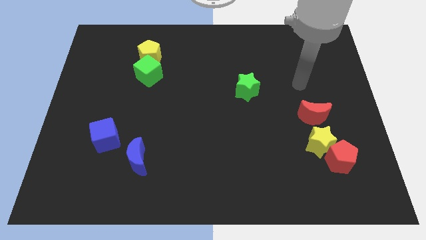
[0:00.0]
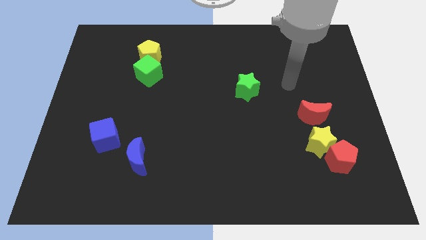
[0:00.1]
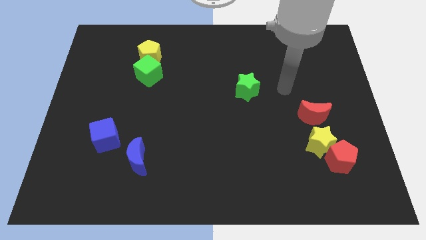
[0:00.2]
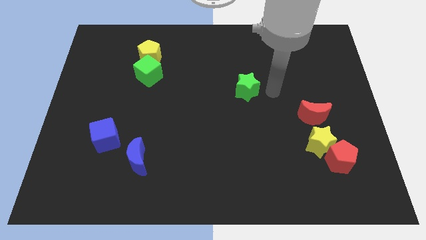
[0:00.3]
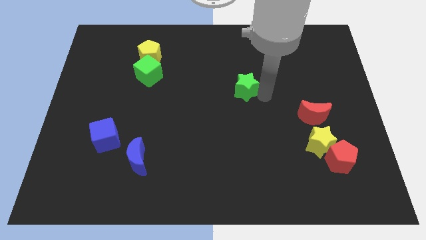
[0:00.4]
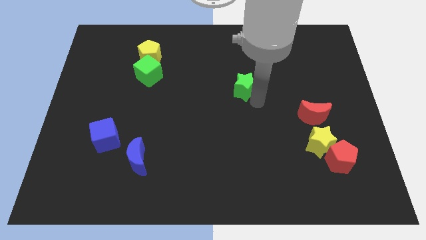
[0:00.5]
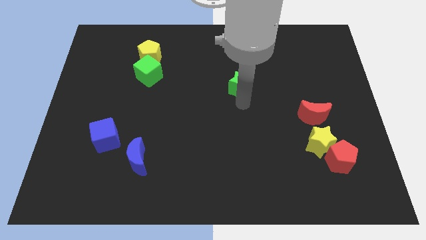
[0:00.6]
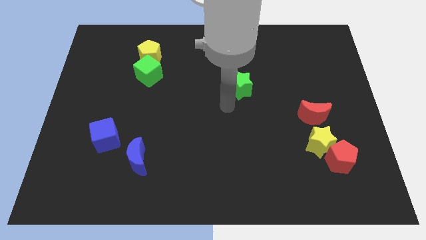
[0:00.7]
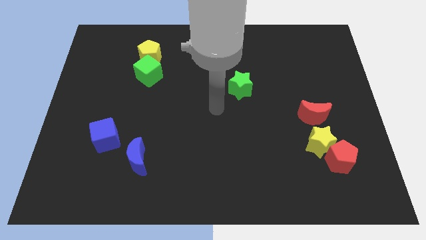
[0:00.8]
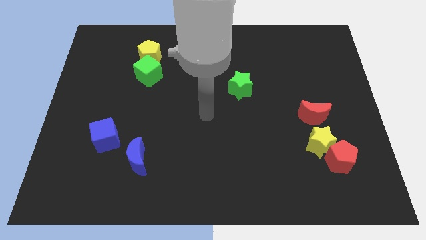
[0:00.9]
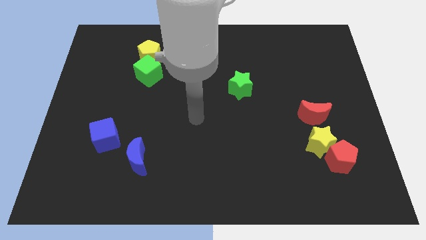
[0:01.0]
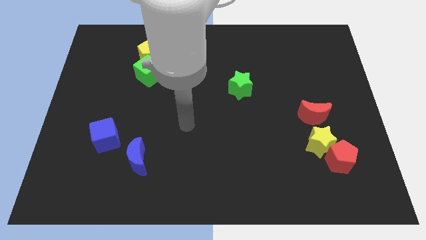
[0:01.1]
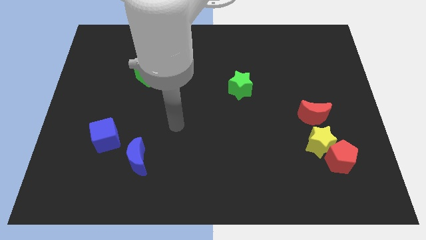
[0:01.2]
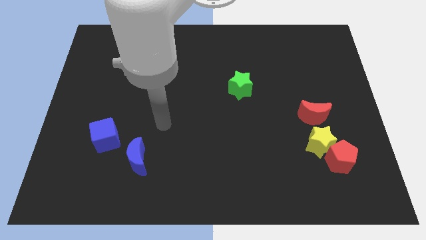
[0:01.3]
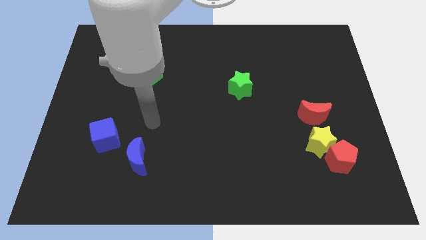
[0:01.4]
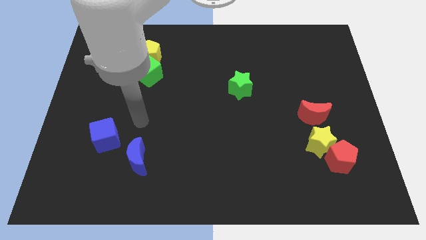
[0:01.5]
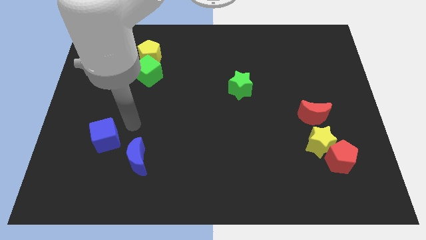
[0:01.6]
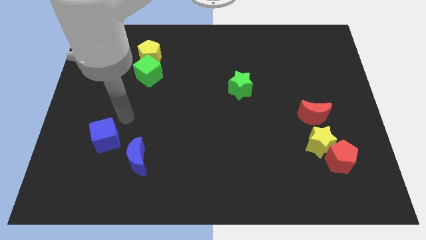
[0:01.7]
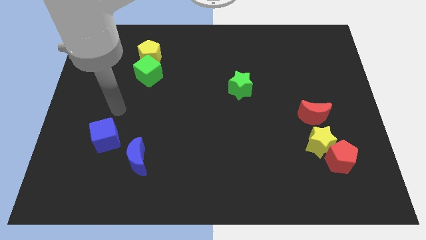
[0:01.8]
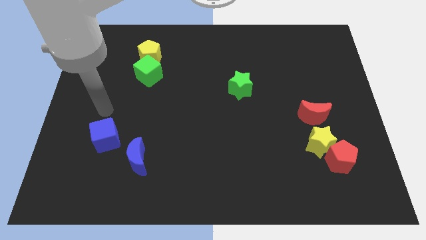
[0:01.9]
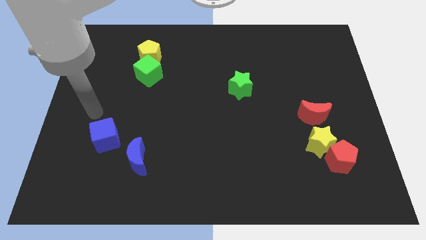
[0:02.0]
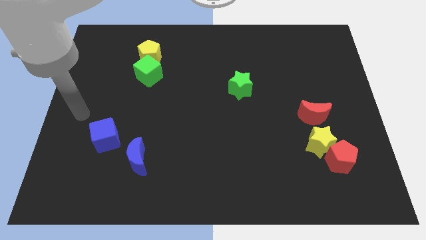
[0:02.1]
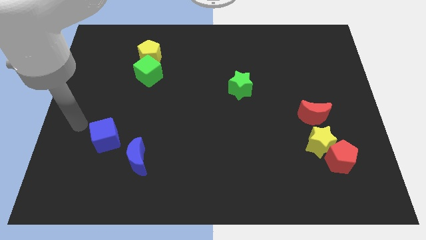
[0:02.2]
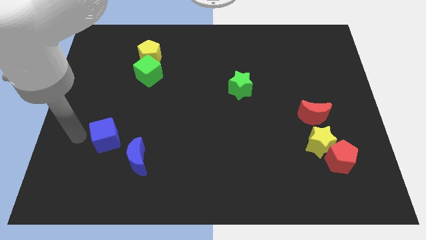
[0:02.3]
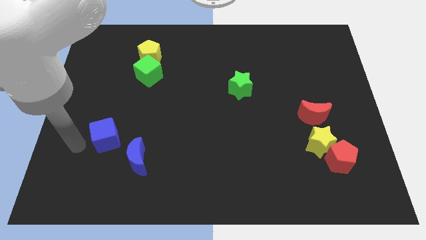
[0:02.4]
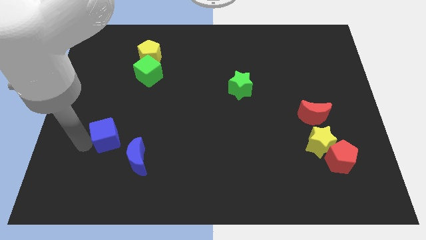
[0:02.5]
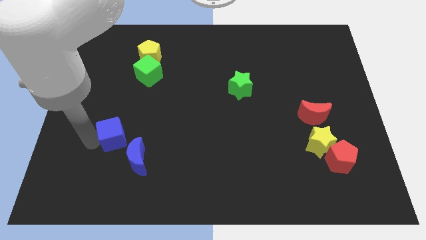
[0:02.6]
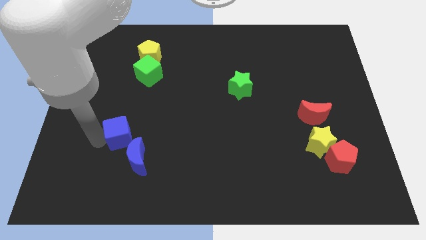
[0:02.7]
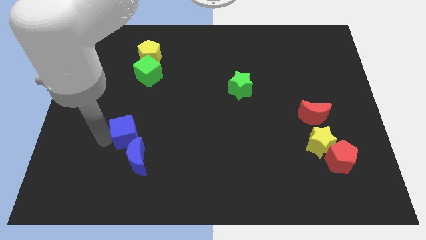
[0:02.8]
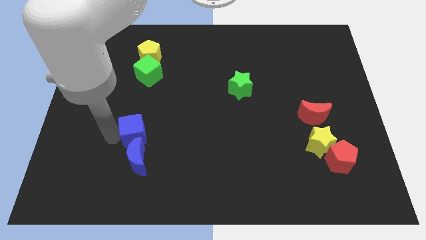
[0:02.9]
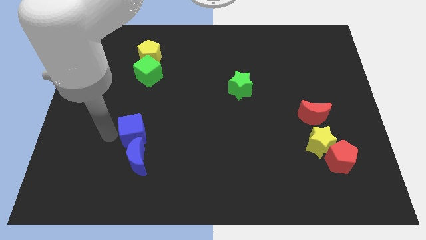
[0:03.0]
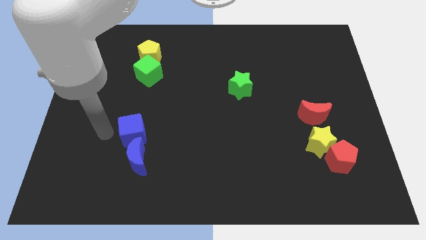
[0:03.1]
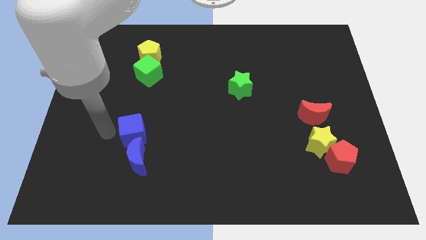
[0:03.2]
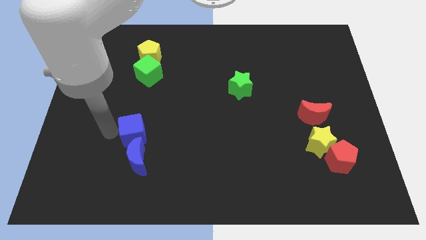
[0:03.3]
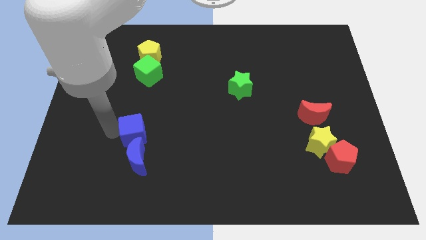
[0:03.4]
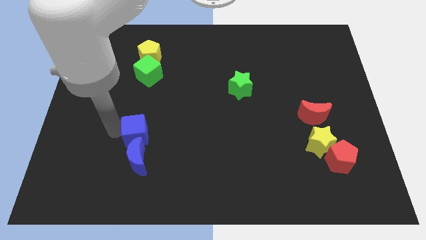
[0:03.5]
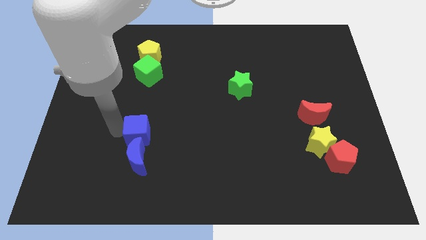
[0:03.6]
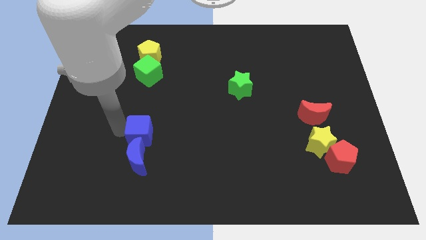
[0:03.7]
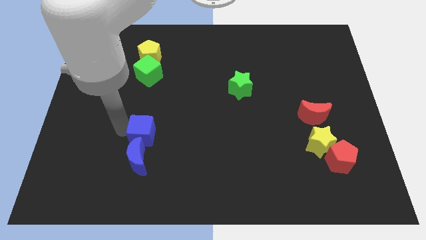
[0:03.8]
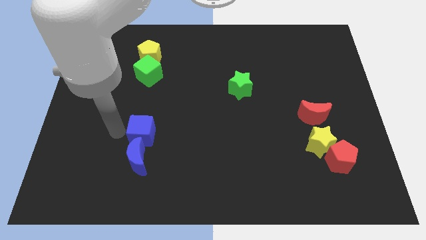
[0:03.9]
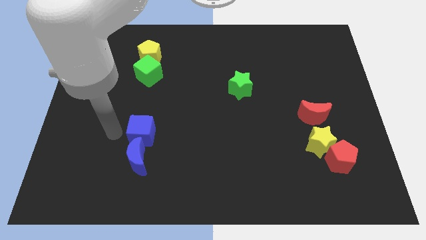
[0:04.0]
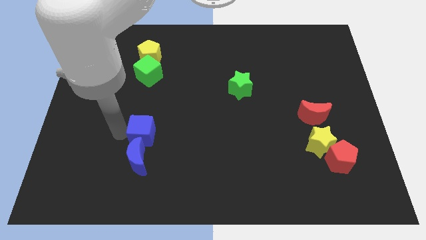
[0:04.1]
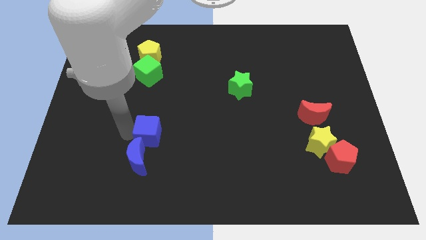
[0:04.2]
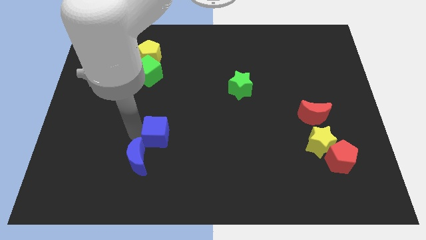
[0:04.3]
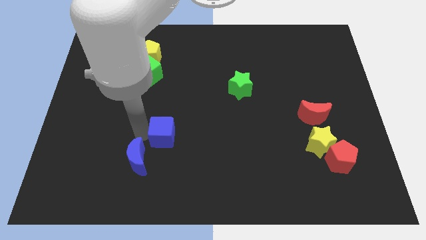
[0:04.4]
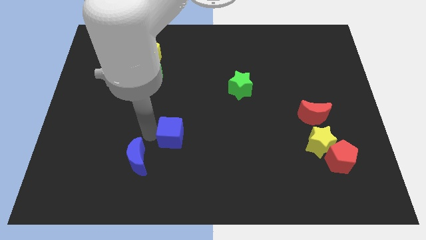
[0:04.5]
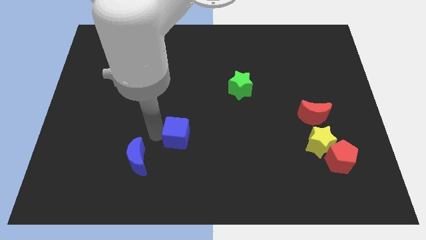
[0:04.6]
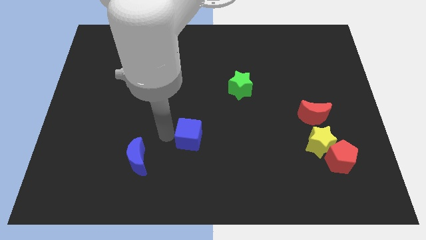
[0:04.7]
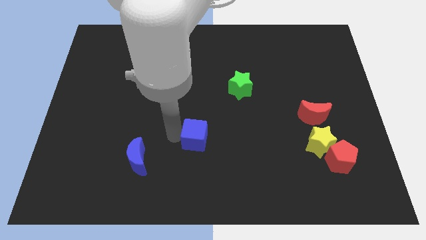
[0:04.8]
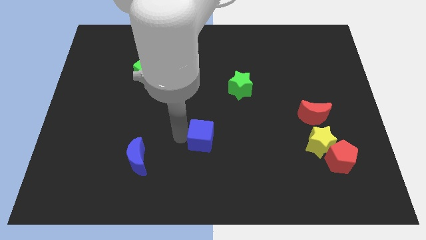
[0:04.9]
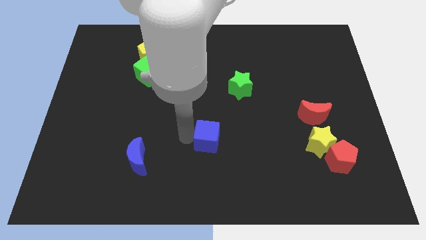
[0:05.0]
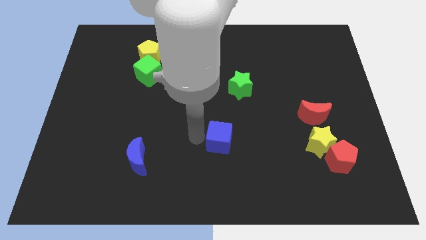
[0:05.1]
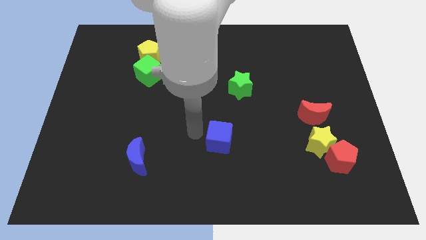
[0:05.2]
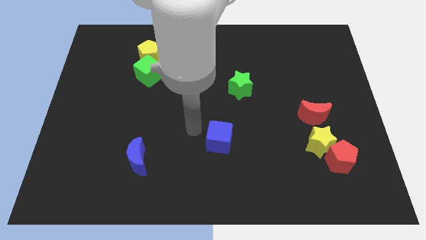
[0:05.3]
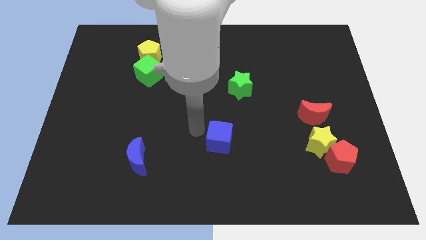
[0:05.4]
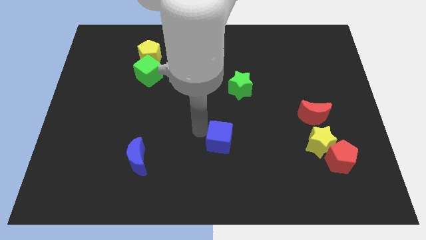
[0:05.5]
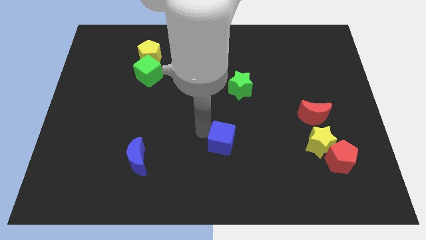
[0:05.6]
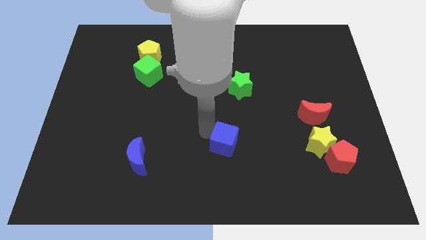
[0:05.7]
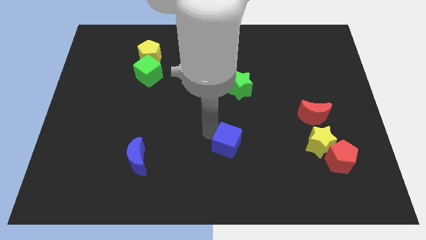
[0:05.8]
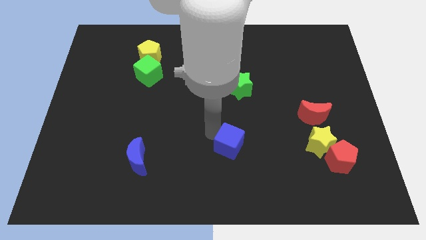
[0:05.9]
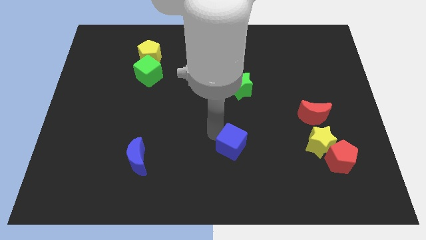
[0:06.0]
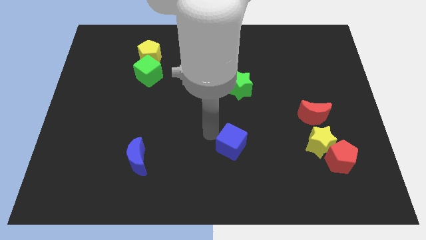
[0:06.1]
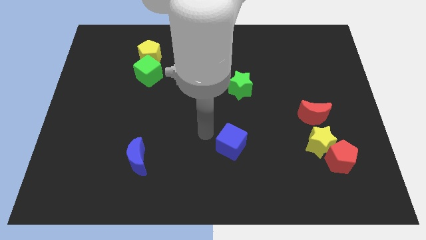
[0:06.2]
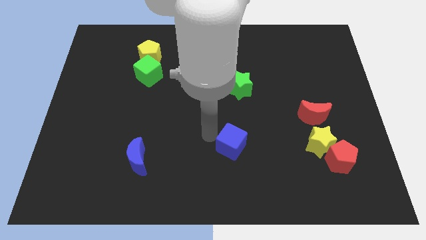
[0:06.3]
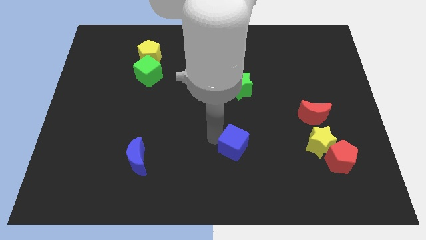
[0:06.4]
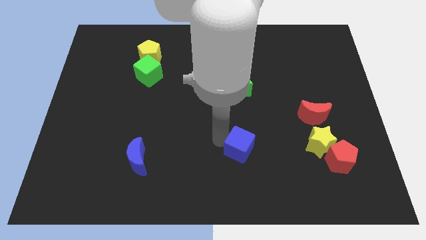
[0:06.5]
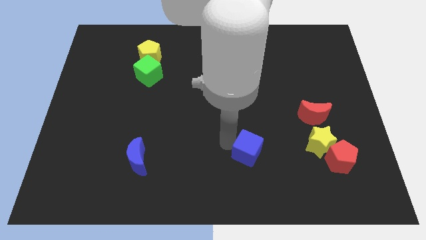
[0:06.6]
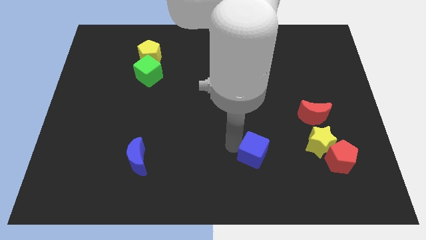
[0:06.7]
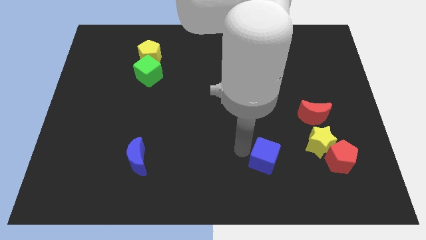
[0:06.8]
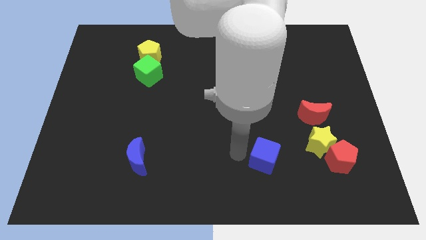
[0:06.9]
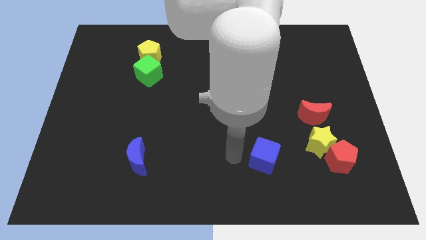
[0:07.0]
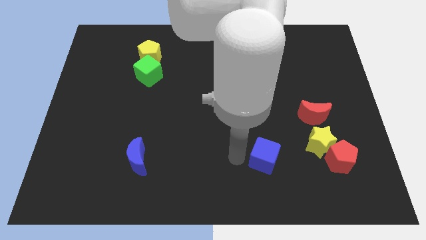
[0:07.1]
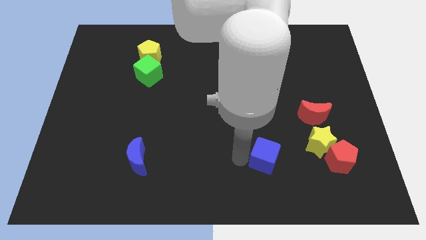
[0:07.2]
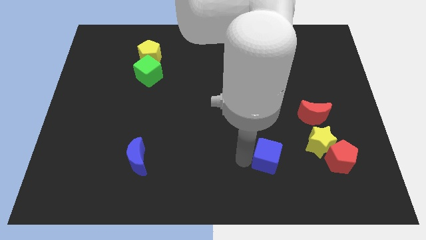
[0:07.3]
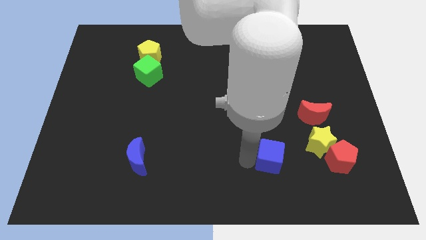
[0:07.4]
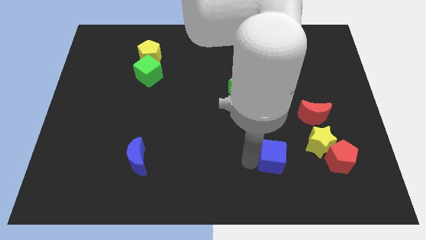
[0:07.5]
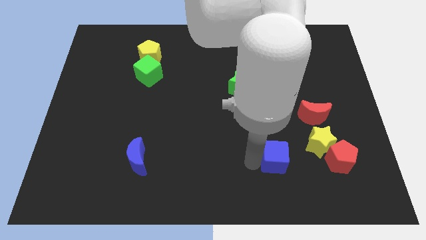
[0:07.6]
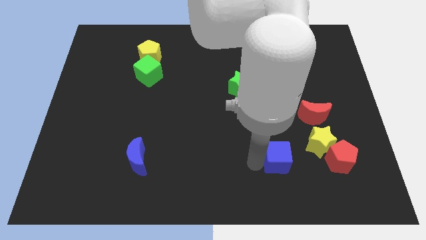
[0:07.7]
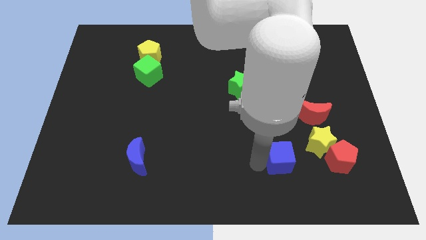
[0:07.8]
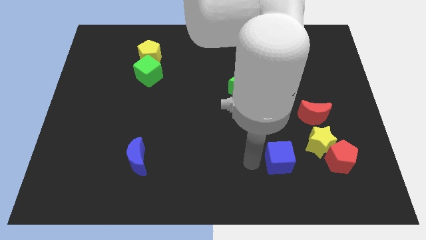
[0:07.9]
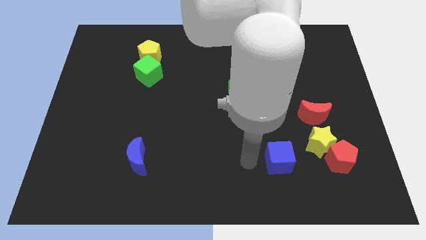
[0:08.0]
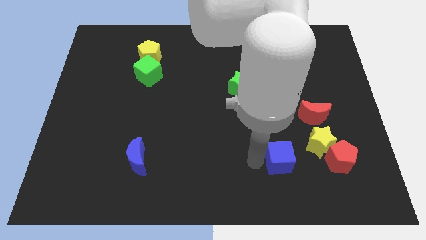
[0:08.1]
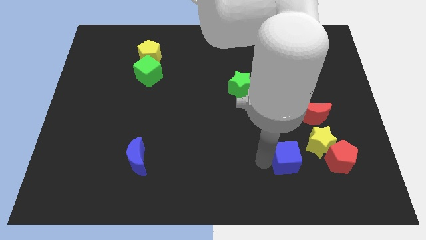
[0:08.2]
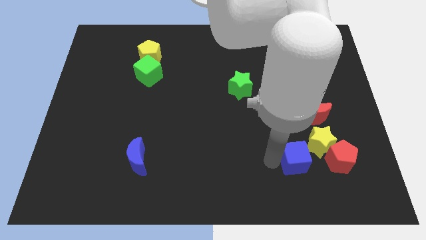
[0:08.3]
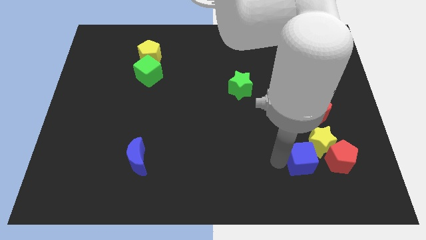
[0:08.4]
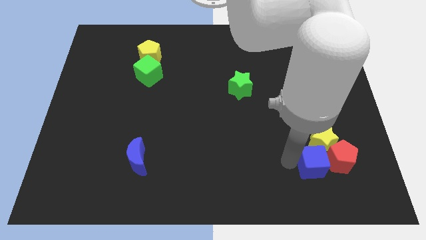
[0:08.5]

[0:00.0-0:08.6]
move the blue cube to the red pentagon
